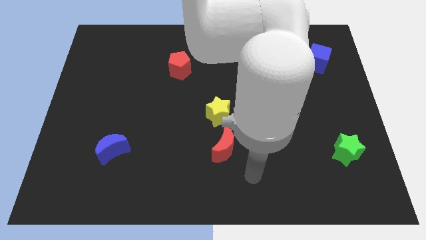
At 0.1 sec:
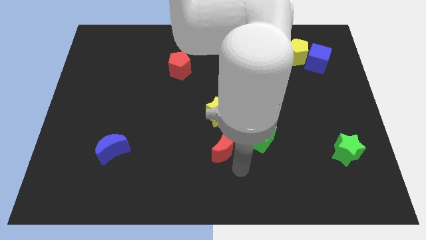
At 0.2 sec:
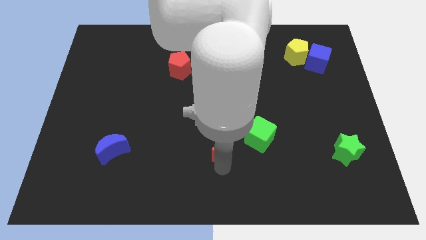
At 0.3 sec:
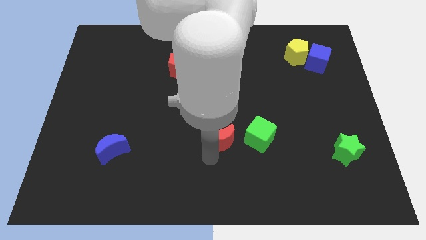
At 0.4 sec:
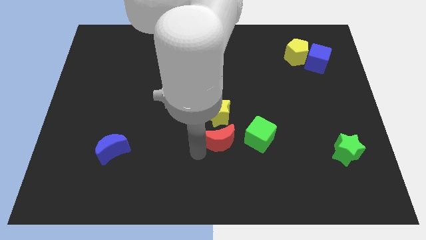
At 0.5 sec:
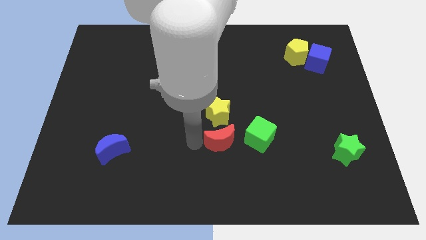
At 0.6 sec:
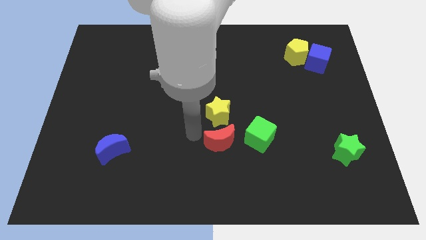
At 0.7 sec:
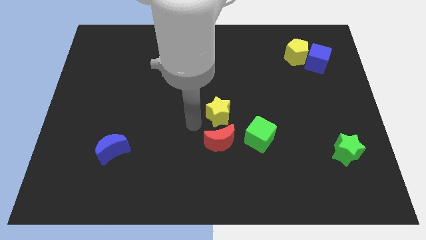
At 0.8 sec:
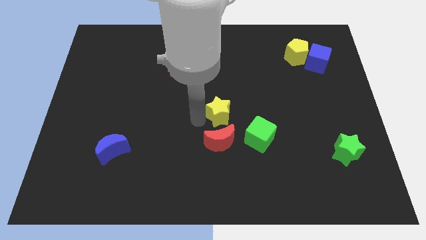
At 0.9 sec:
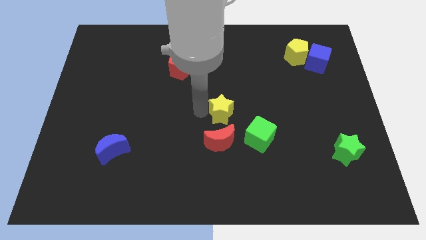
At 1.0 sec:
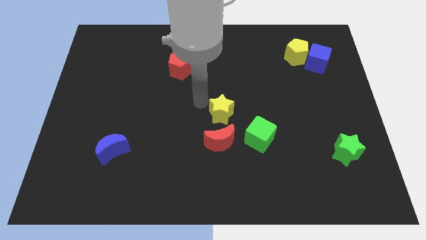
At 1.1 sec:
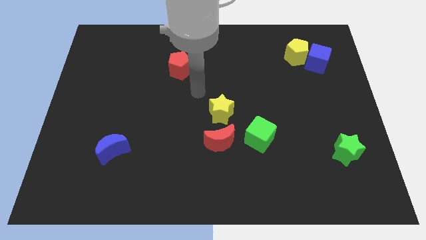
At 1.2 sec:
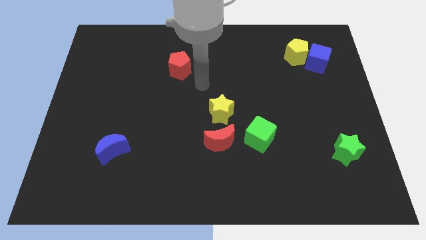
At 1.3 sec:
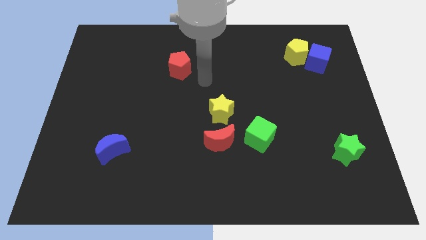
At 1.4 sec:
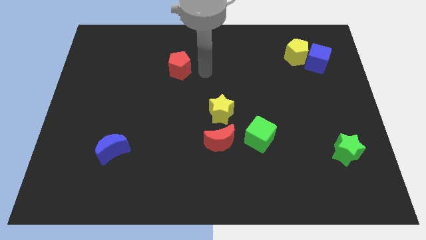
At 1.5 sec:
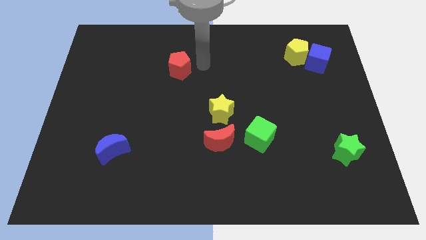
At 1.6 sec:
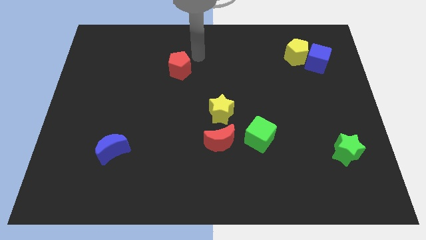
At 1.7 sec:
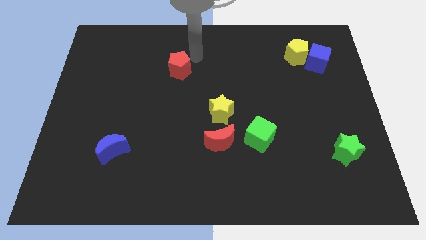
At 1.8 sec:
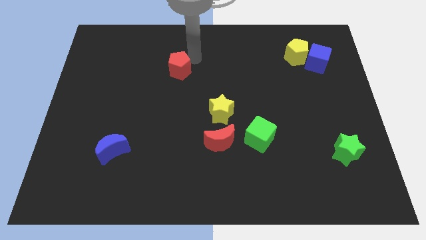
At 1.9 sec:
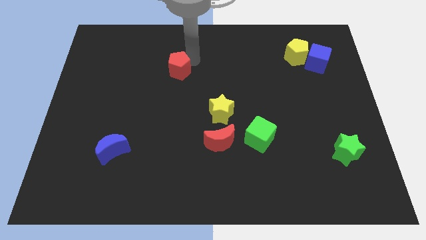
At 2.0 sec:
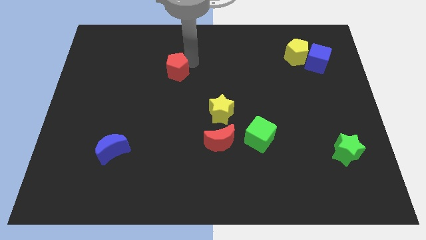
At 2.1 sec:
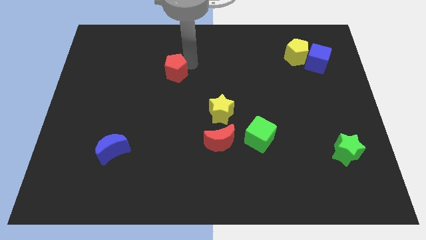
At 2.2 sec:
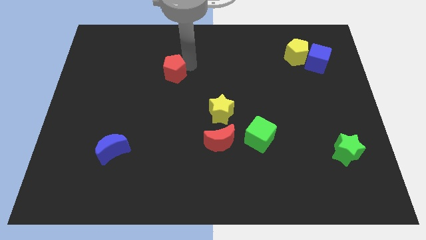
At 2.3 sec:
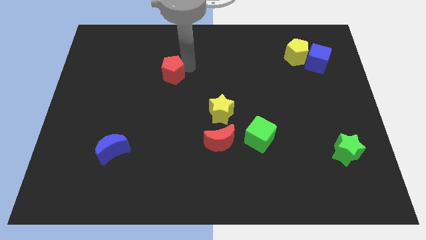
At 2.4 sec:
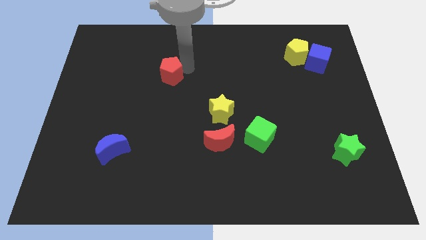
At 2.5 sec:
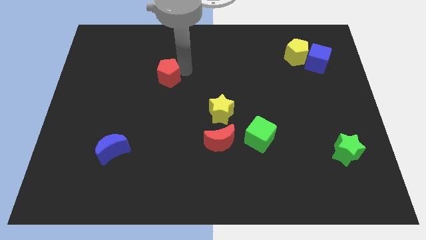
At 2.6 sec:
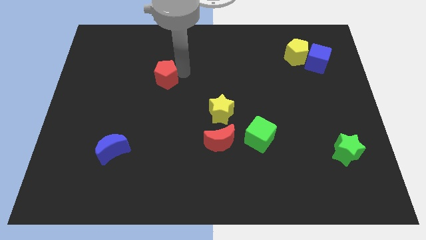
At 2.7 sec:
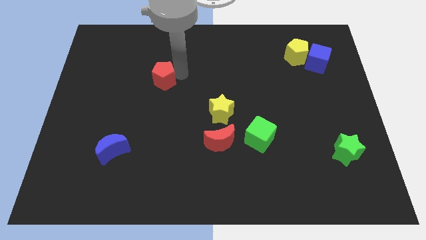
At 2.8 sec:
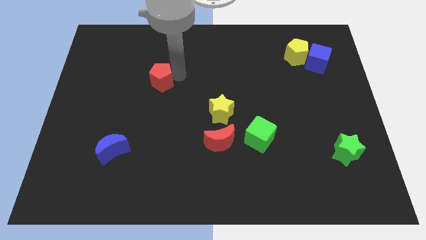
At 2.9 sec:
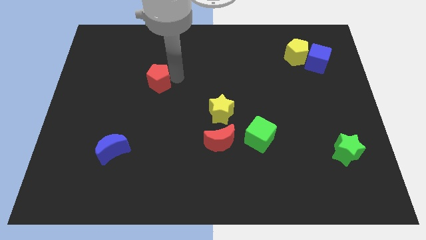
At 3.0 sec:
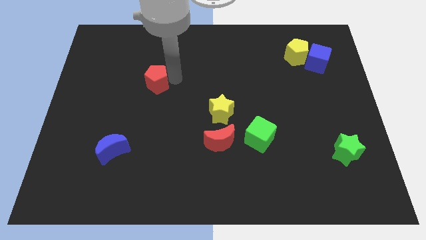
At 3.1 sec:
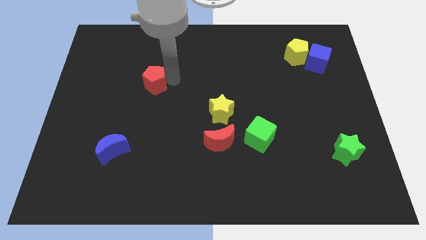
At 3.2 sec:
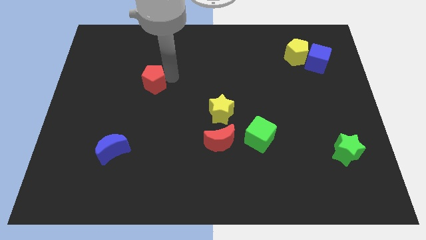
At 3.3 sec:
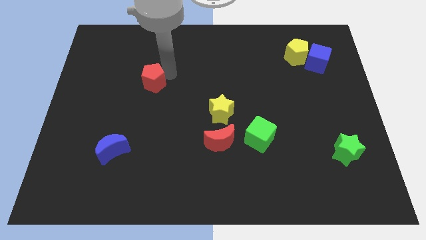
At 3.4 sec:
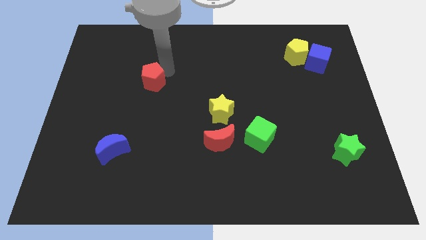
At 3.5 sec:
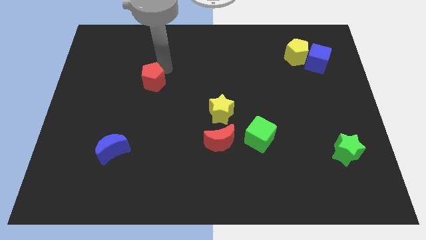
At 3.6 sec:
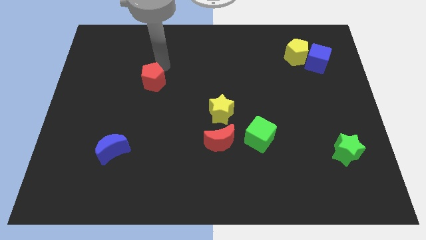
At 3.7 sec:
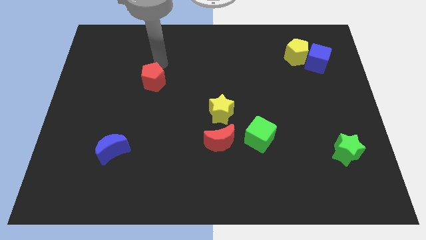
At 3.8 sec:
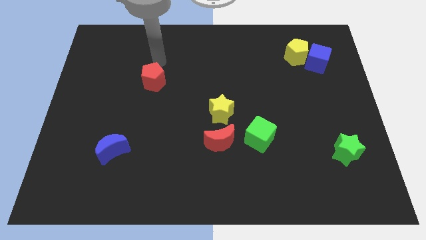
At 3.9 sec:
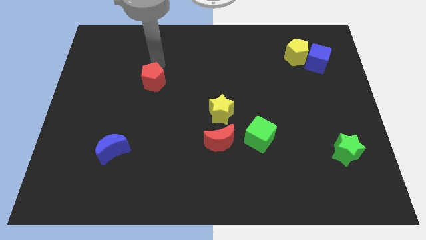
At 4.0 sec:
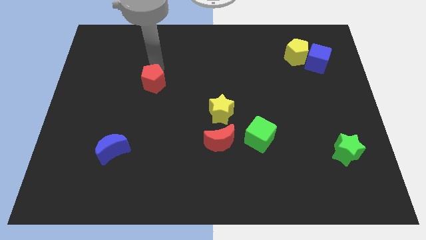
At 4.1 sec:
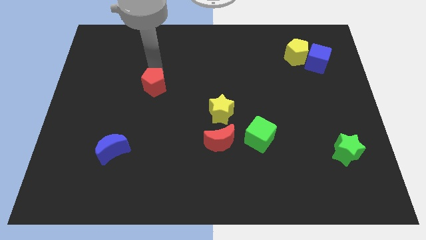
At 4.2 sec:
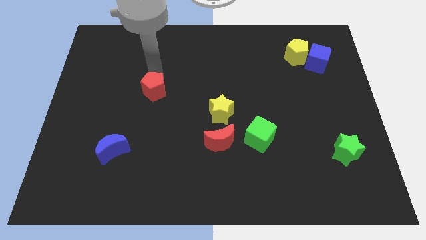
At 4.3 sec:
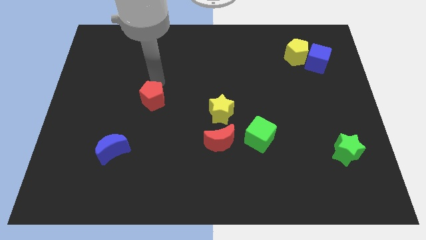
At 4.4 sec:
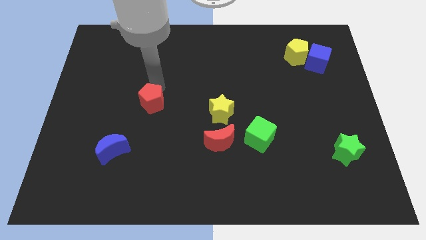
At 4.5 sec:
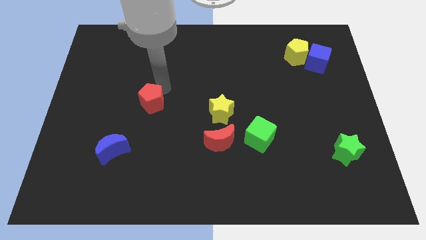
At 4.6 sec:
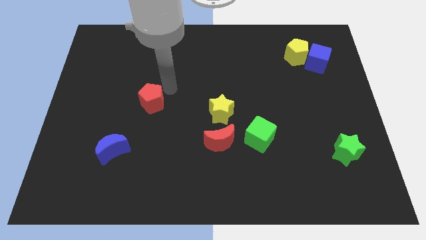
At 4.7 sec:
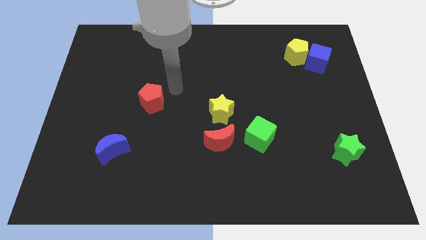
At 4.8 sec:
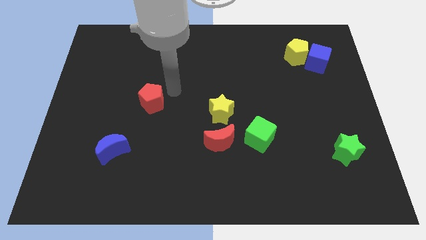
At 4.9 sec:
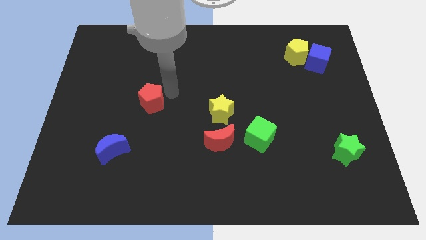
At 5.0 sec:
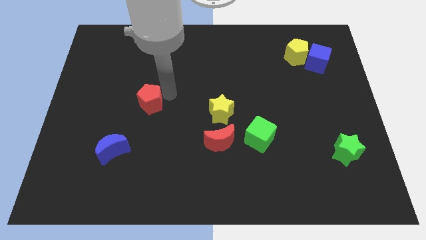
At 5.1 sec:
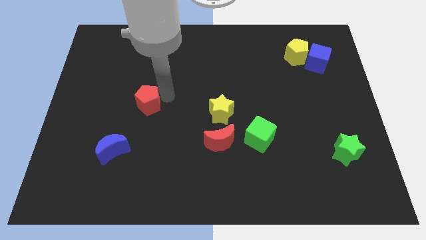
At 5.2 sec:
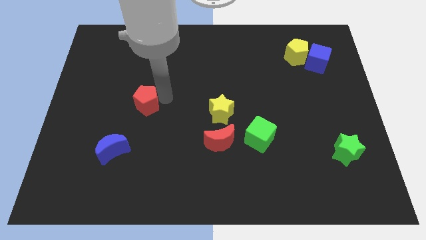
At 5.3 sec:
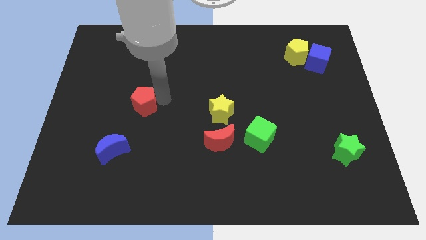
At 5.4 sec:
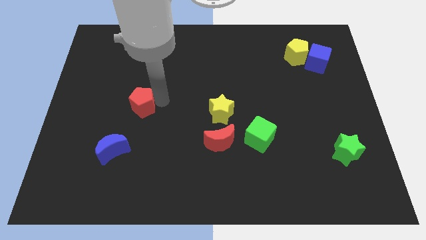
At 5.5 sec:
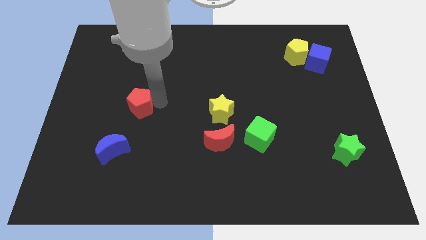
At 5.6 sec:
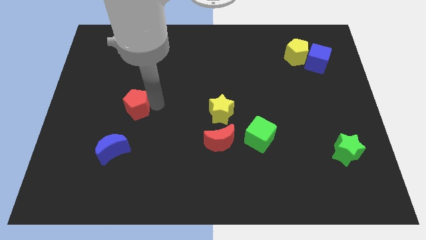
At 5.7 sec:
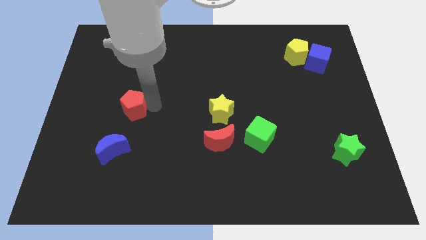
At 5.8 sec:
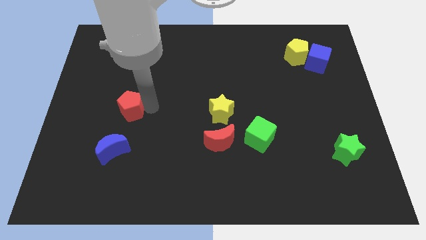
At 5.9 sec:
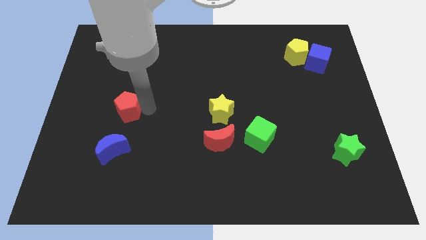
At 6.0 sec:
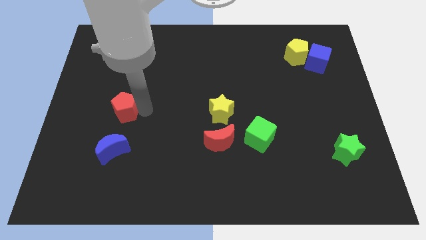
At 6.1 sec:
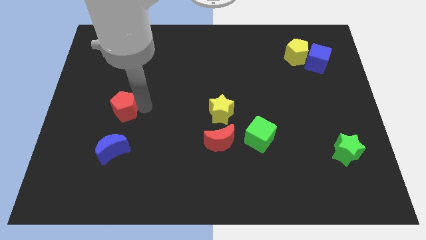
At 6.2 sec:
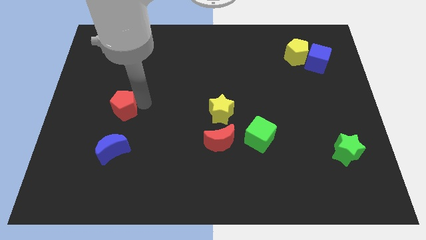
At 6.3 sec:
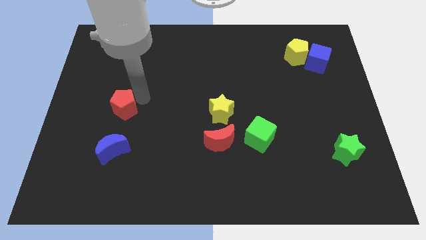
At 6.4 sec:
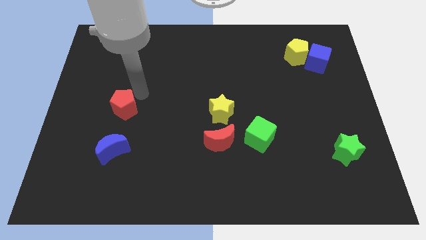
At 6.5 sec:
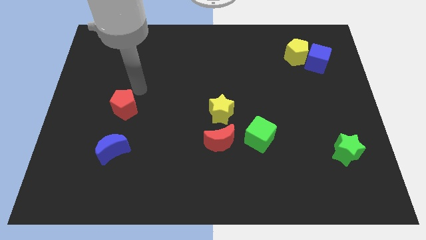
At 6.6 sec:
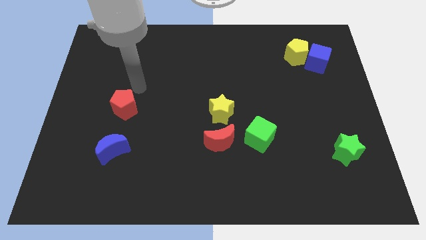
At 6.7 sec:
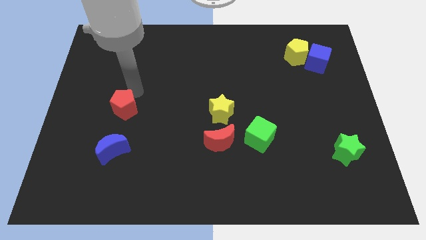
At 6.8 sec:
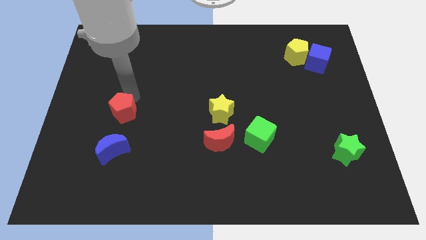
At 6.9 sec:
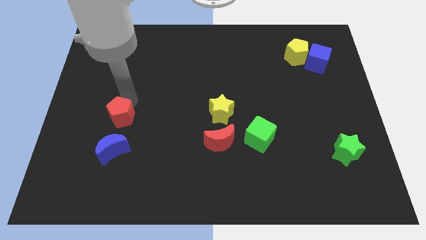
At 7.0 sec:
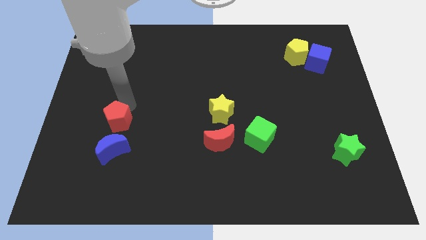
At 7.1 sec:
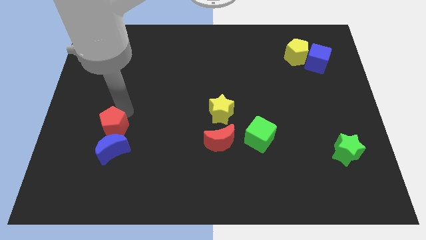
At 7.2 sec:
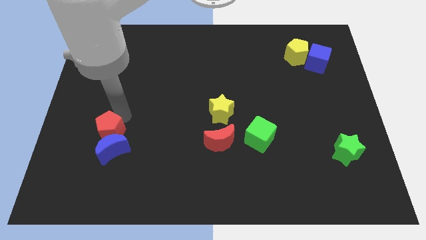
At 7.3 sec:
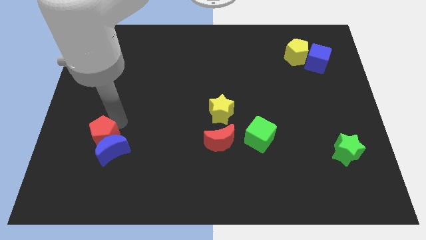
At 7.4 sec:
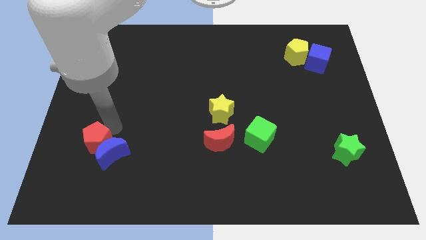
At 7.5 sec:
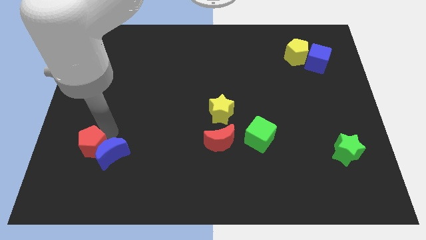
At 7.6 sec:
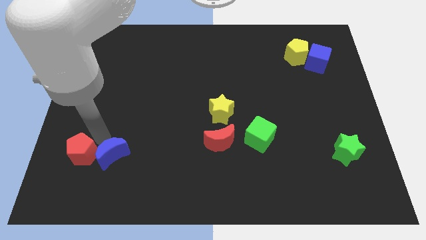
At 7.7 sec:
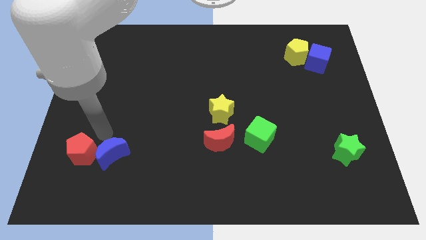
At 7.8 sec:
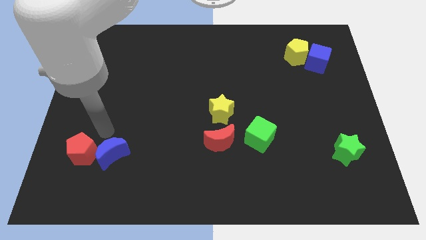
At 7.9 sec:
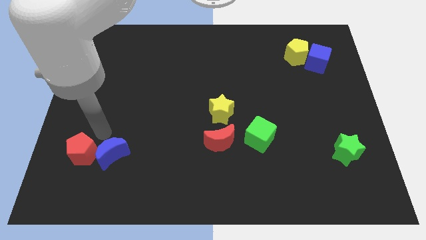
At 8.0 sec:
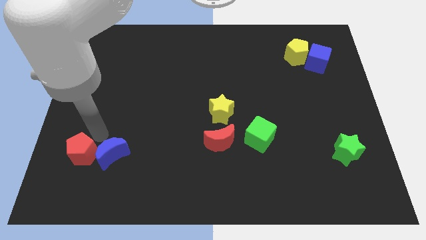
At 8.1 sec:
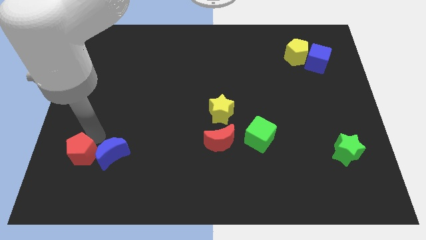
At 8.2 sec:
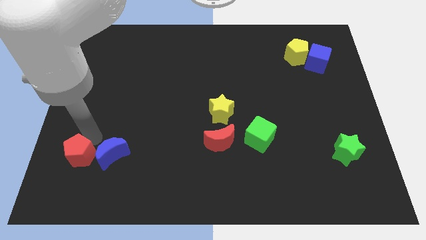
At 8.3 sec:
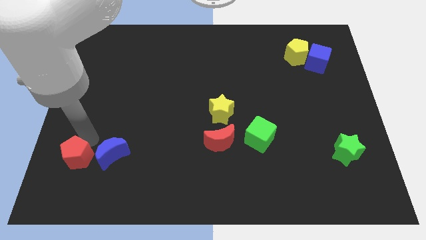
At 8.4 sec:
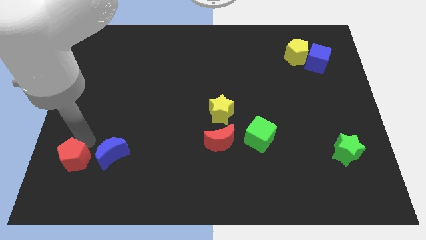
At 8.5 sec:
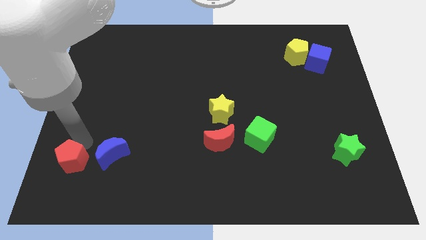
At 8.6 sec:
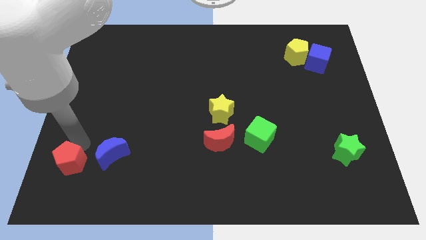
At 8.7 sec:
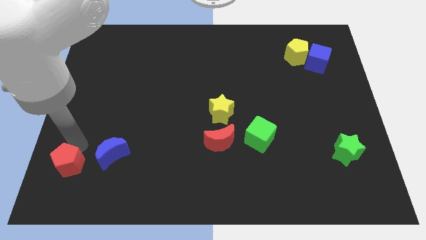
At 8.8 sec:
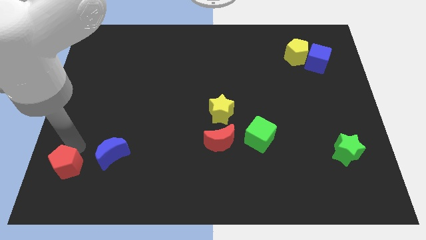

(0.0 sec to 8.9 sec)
push the red pentagon to the bottom left corner
